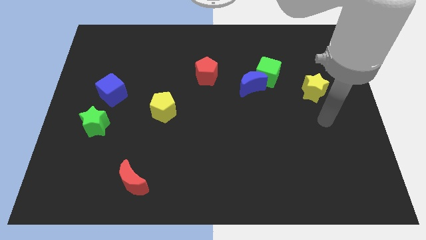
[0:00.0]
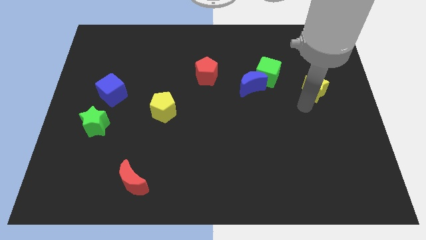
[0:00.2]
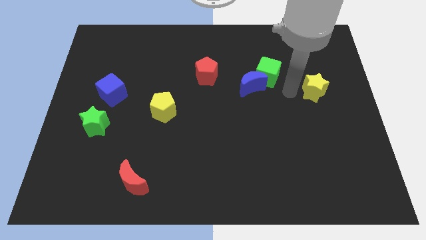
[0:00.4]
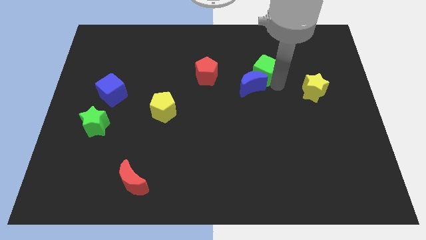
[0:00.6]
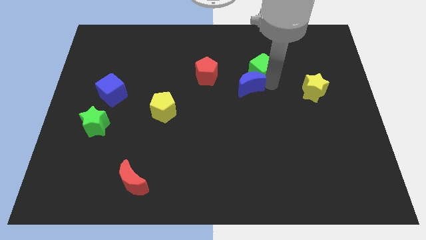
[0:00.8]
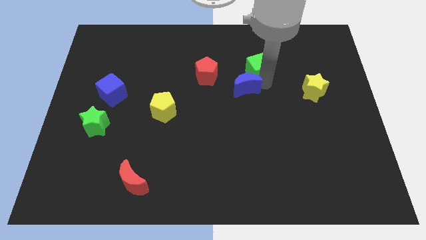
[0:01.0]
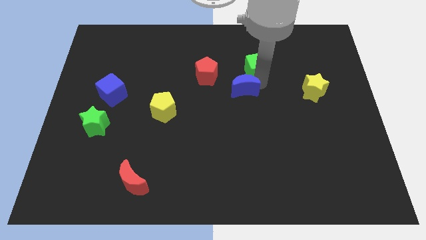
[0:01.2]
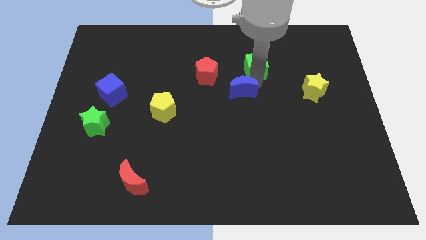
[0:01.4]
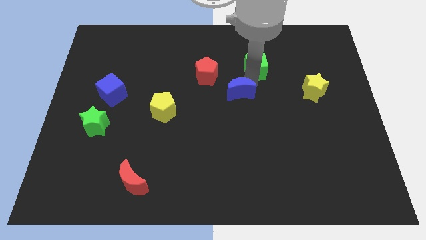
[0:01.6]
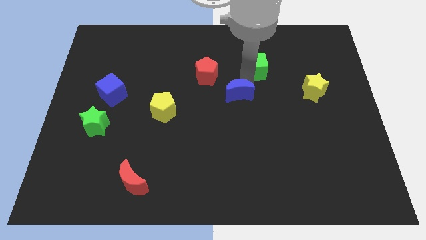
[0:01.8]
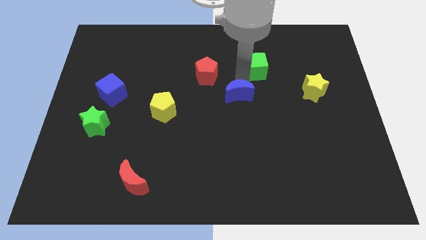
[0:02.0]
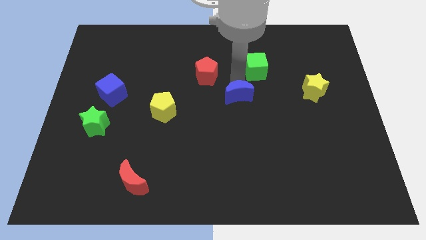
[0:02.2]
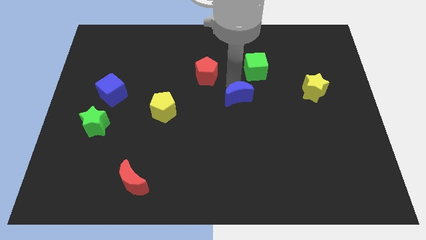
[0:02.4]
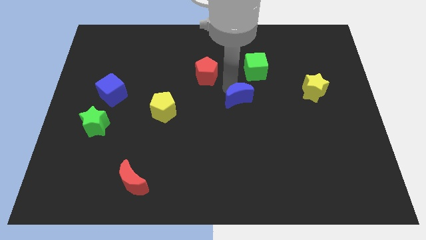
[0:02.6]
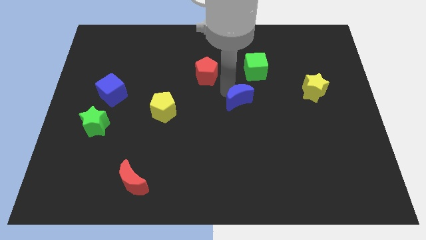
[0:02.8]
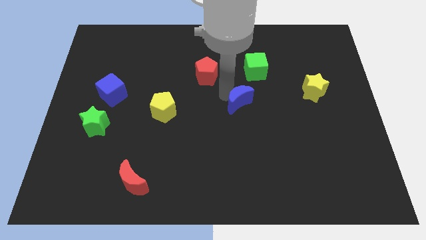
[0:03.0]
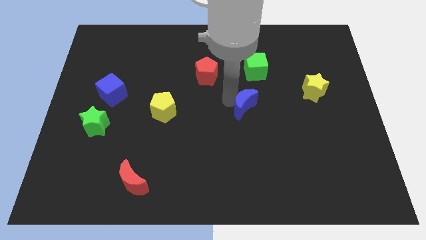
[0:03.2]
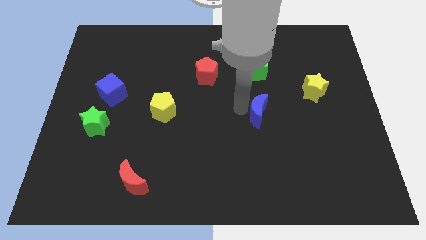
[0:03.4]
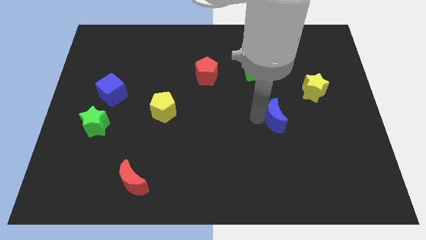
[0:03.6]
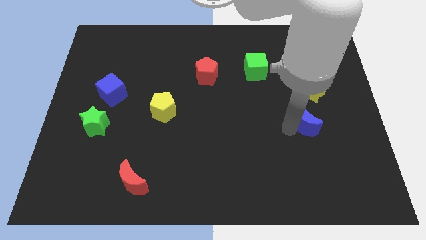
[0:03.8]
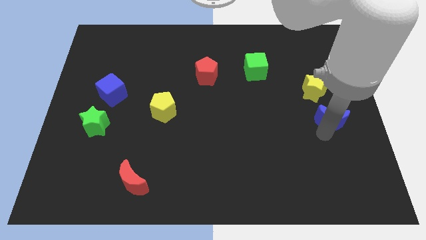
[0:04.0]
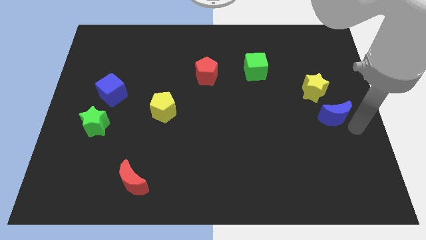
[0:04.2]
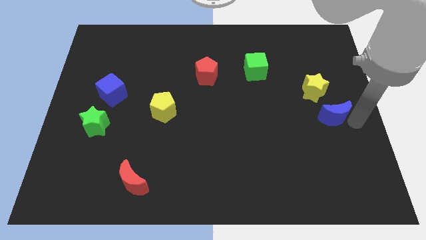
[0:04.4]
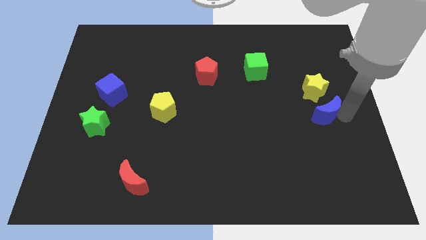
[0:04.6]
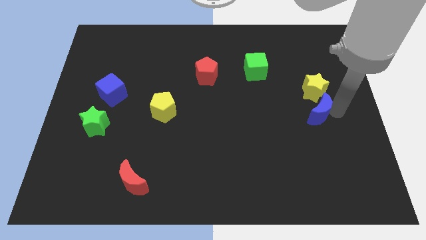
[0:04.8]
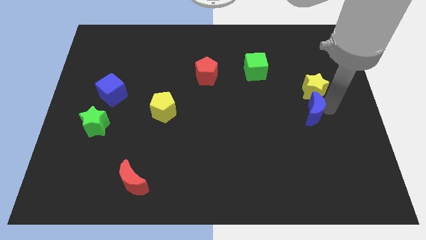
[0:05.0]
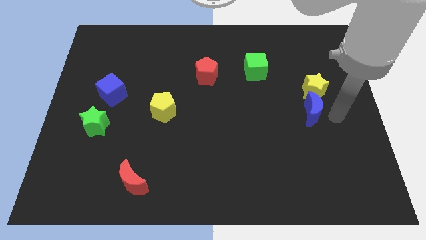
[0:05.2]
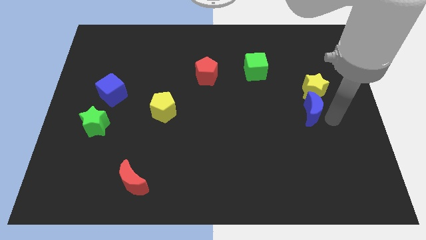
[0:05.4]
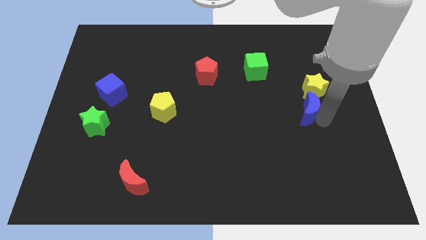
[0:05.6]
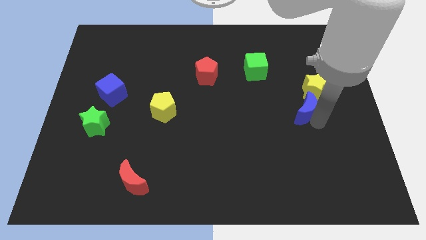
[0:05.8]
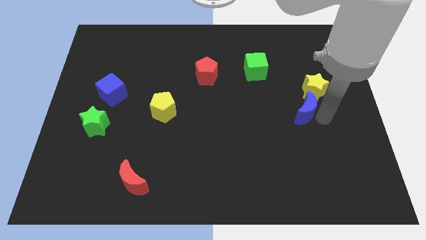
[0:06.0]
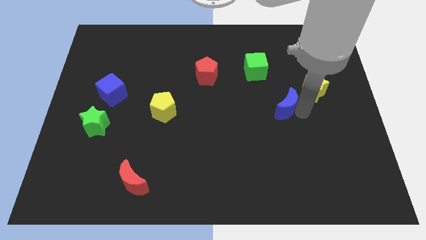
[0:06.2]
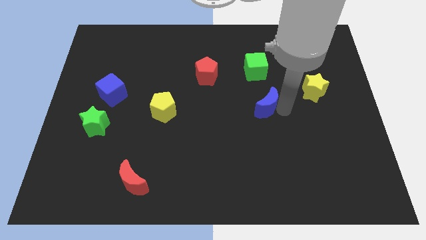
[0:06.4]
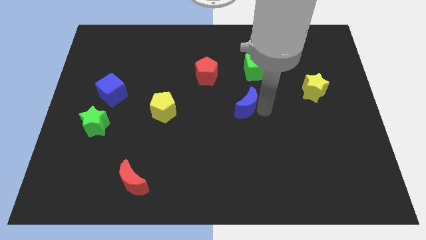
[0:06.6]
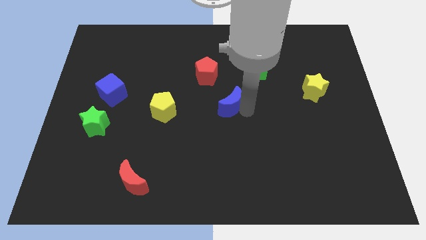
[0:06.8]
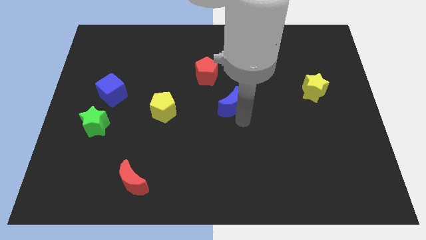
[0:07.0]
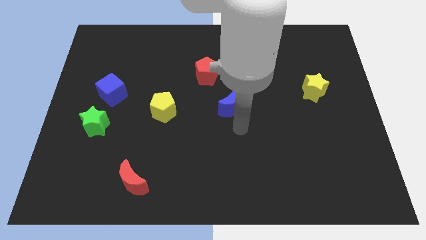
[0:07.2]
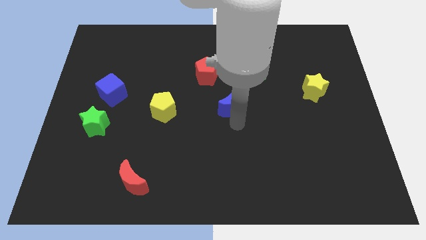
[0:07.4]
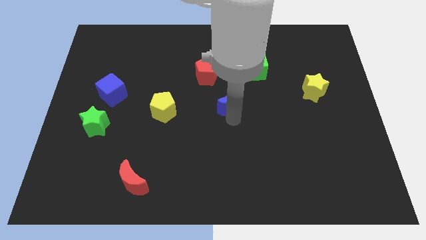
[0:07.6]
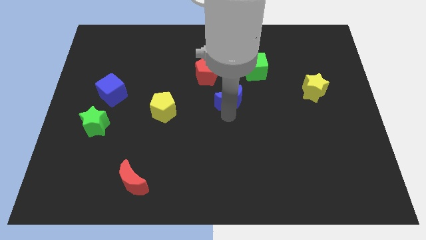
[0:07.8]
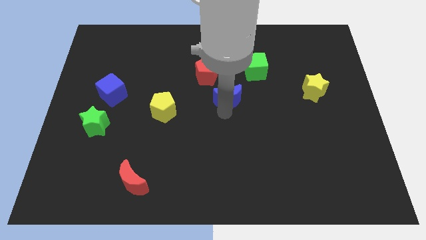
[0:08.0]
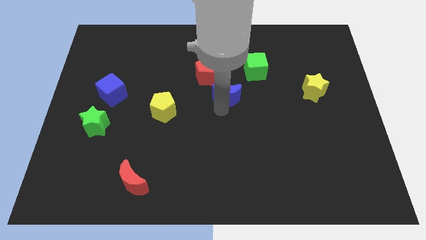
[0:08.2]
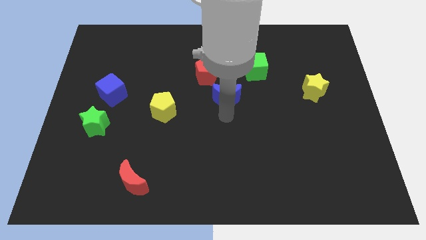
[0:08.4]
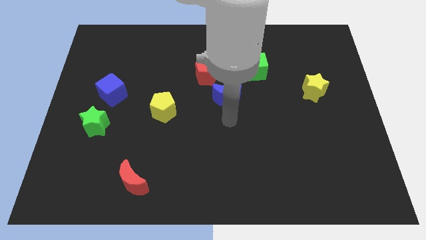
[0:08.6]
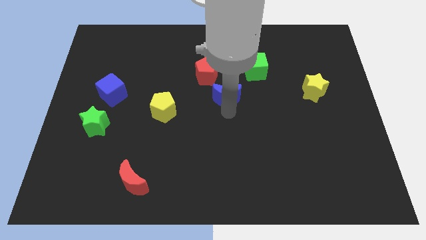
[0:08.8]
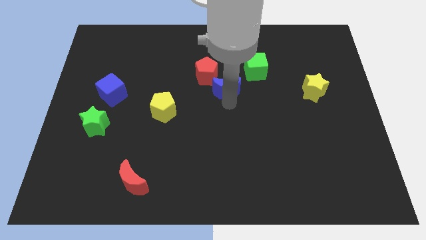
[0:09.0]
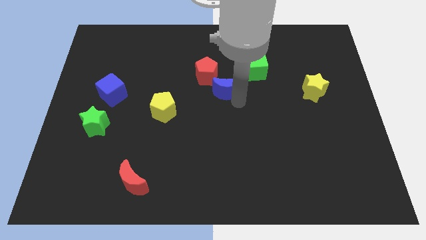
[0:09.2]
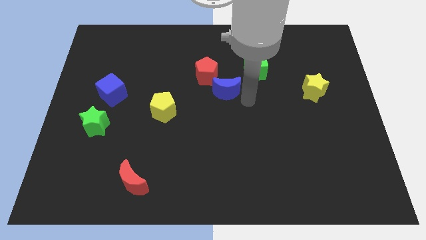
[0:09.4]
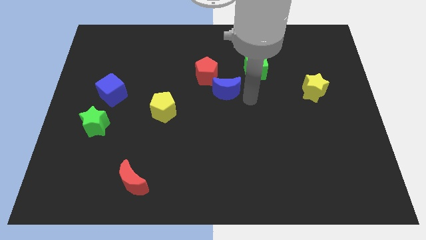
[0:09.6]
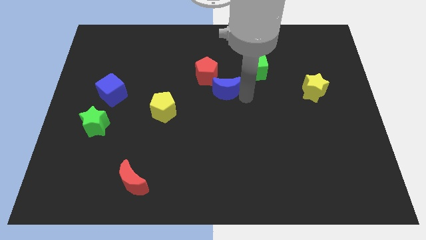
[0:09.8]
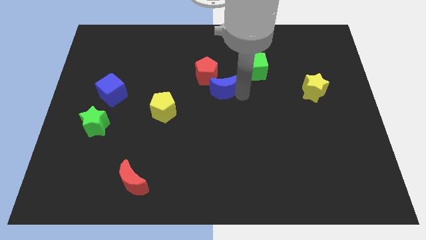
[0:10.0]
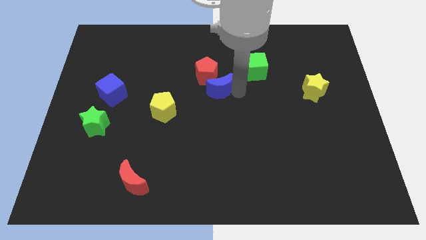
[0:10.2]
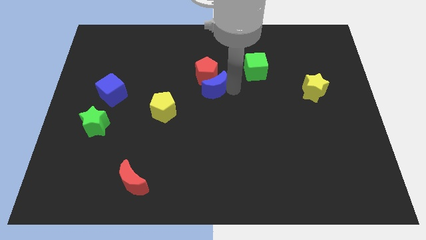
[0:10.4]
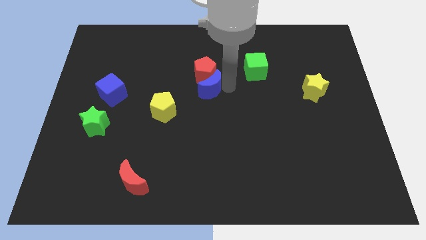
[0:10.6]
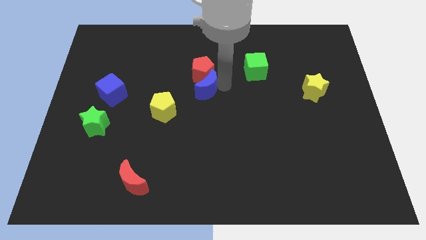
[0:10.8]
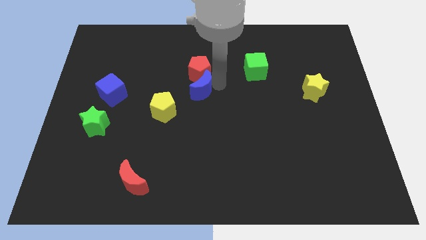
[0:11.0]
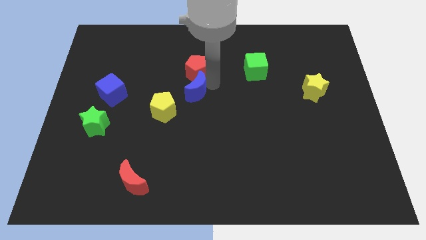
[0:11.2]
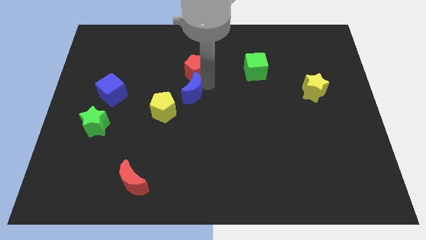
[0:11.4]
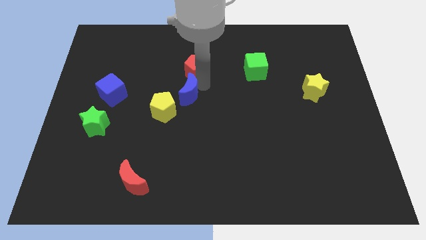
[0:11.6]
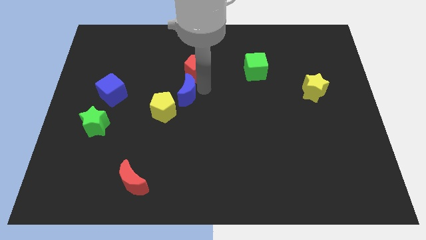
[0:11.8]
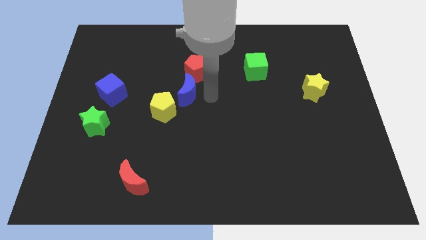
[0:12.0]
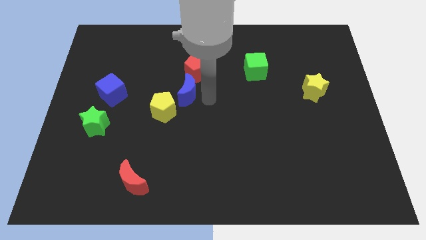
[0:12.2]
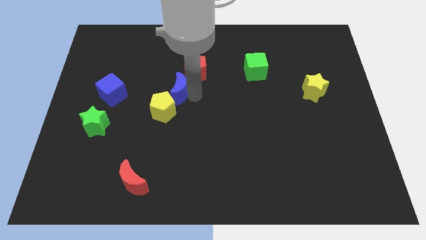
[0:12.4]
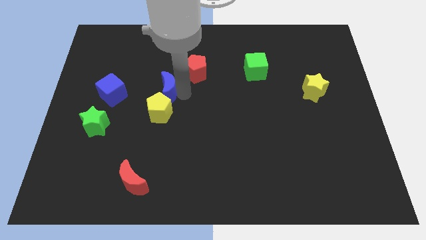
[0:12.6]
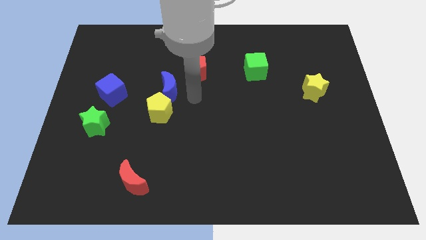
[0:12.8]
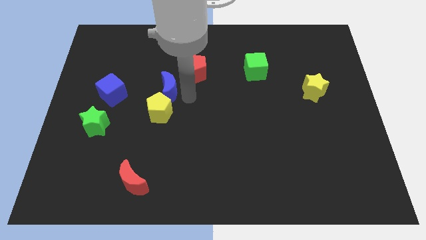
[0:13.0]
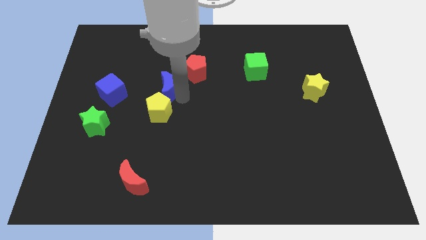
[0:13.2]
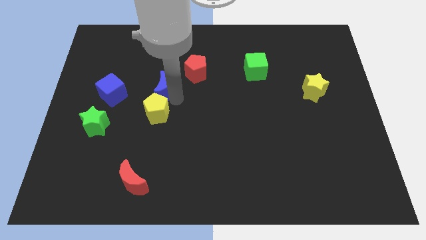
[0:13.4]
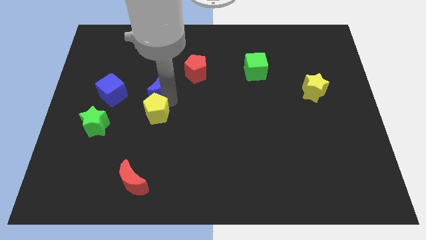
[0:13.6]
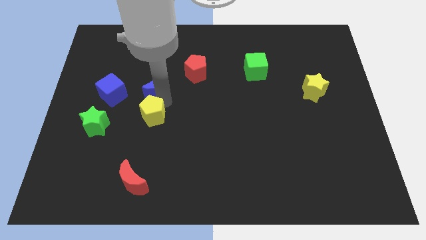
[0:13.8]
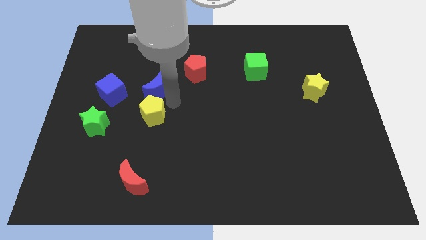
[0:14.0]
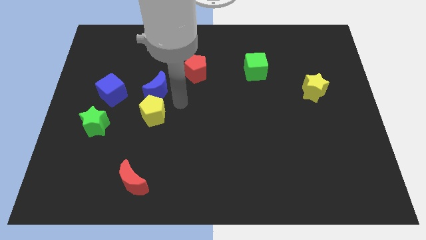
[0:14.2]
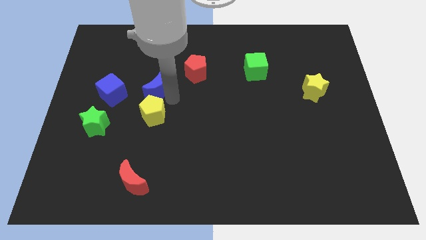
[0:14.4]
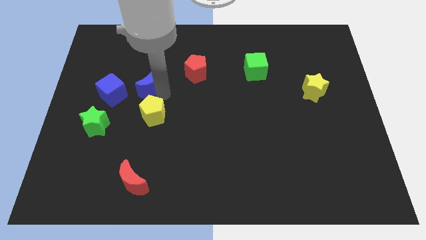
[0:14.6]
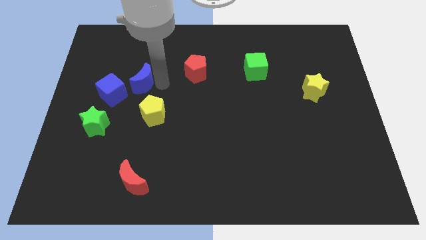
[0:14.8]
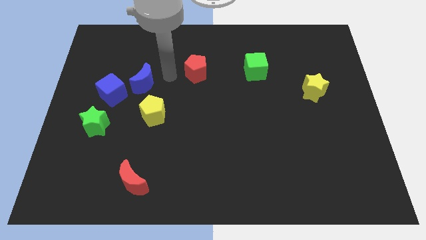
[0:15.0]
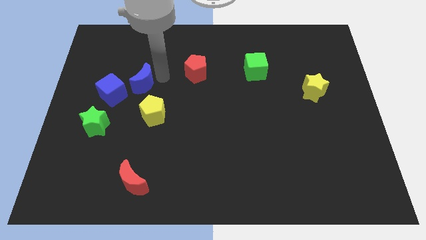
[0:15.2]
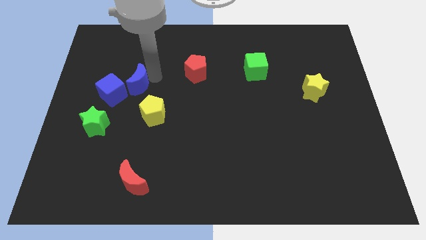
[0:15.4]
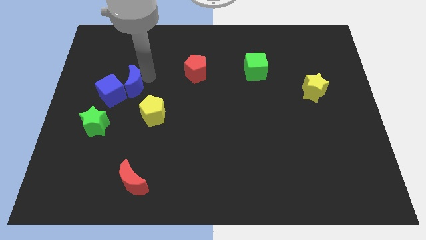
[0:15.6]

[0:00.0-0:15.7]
put the blue moon next to the blue cube
